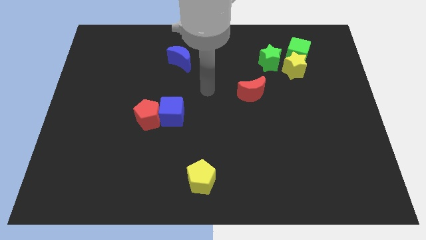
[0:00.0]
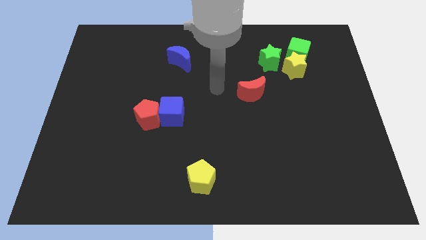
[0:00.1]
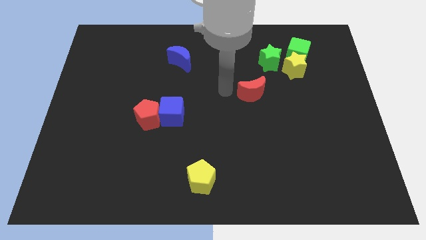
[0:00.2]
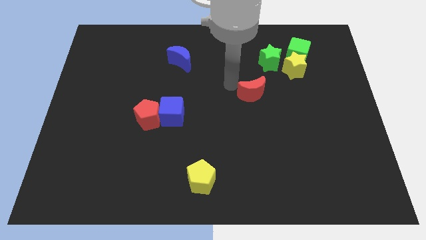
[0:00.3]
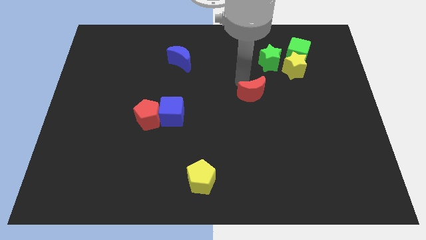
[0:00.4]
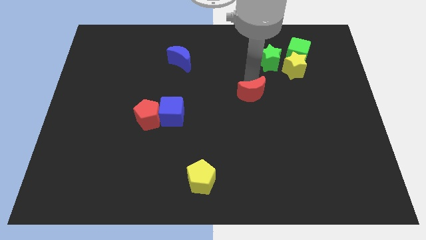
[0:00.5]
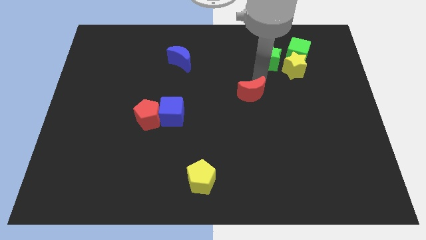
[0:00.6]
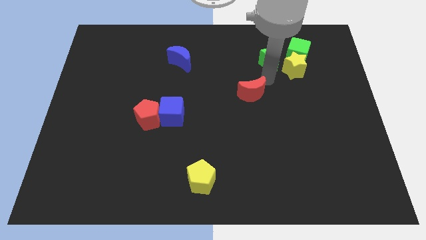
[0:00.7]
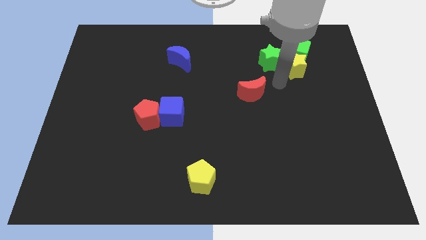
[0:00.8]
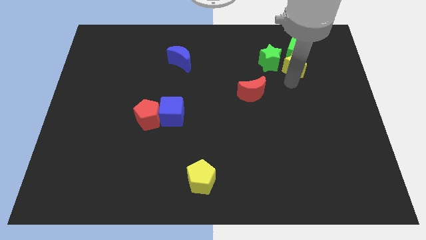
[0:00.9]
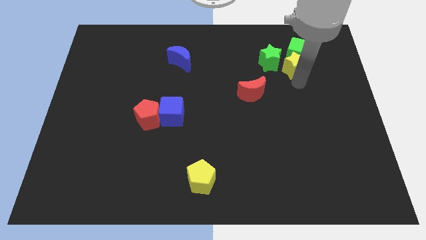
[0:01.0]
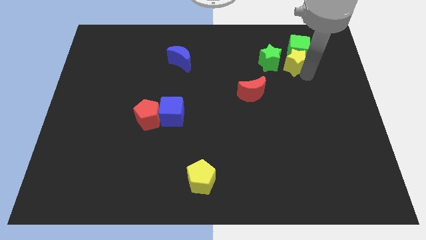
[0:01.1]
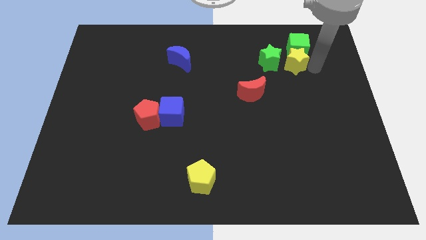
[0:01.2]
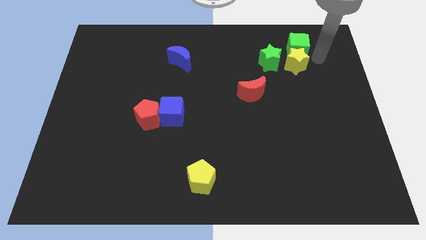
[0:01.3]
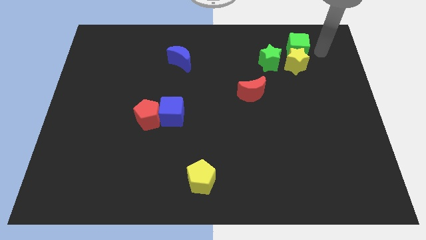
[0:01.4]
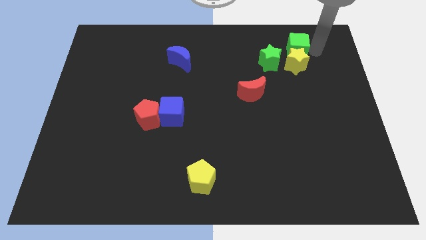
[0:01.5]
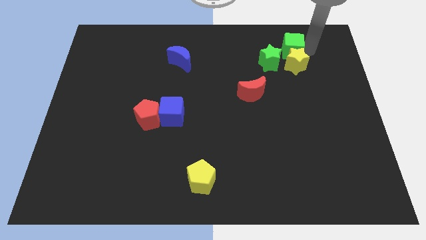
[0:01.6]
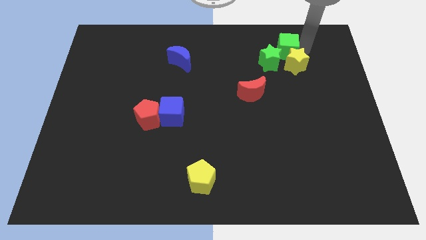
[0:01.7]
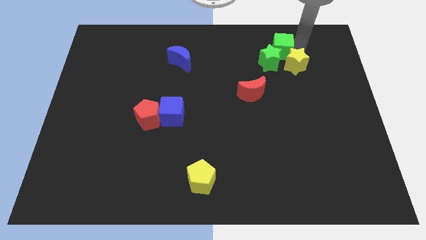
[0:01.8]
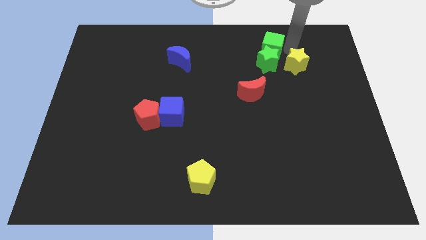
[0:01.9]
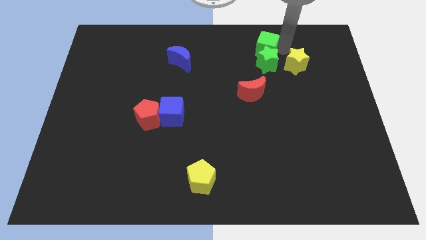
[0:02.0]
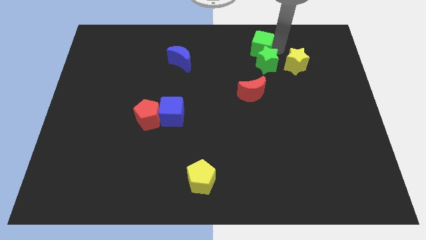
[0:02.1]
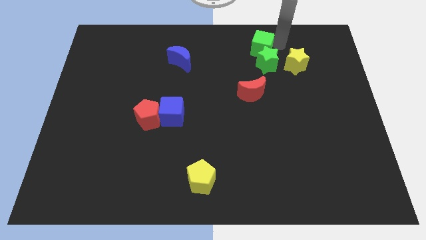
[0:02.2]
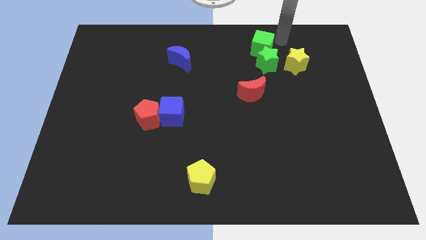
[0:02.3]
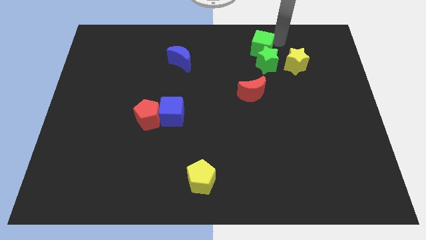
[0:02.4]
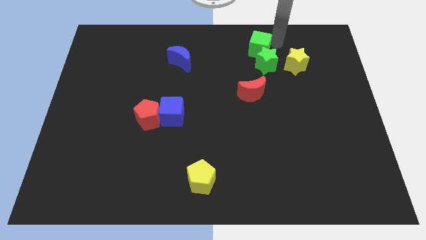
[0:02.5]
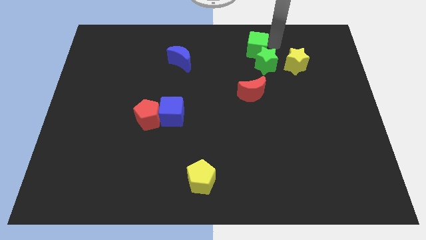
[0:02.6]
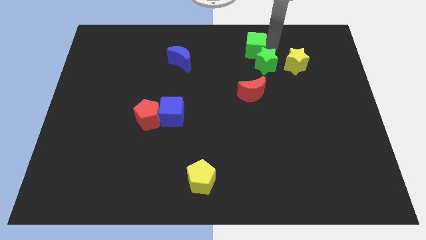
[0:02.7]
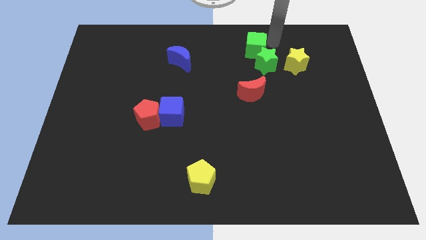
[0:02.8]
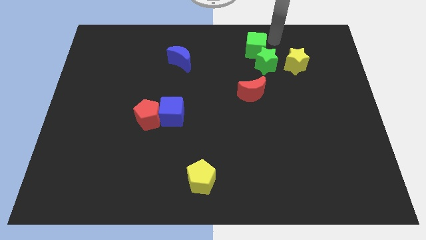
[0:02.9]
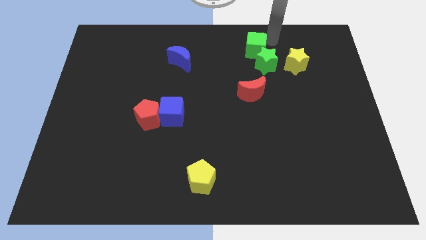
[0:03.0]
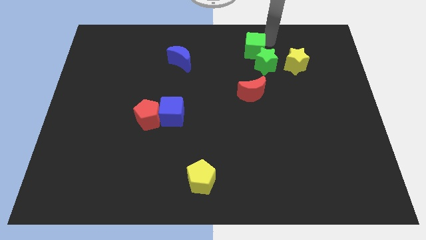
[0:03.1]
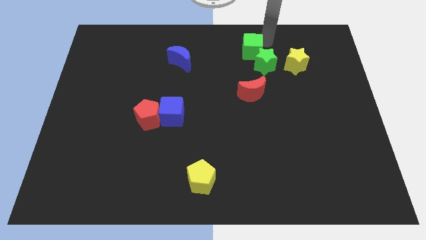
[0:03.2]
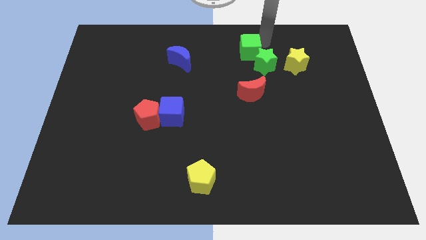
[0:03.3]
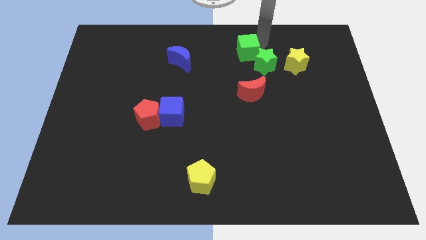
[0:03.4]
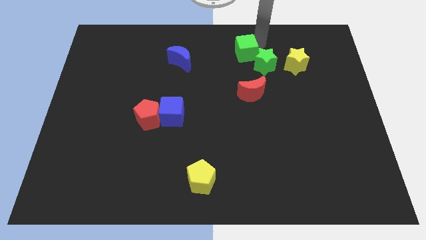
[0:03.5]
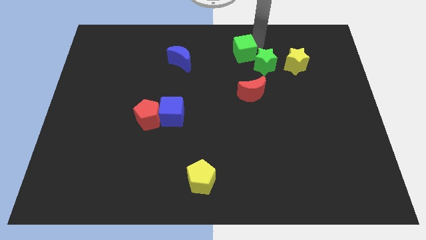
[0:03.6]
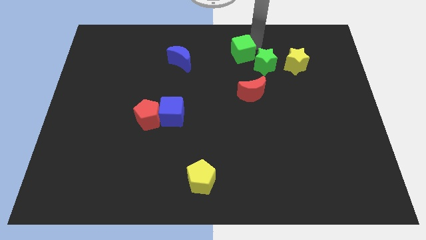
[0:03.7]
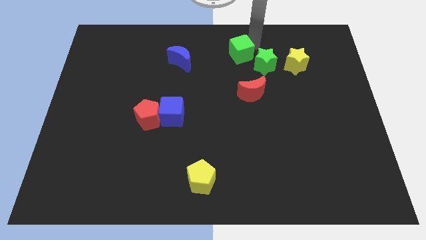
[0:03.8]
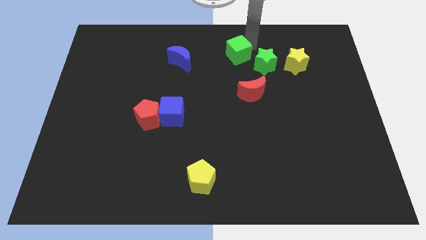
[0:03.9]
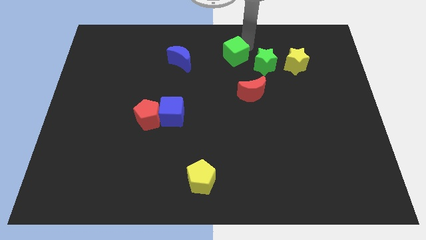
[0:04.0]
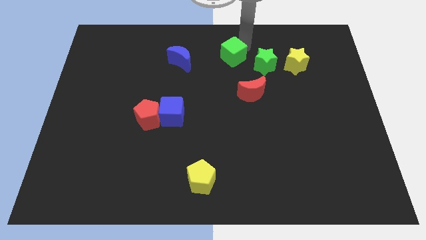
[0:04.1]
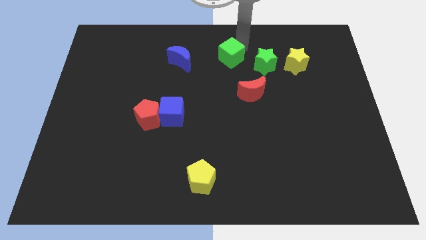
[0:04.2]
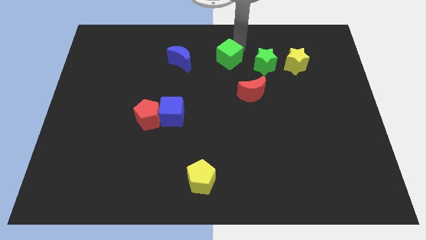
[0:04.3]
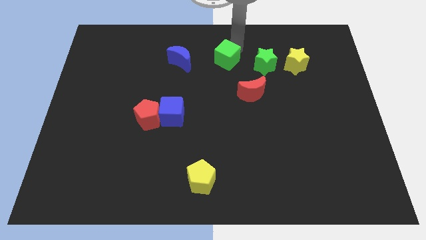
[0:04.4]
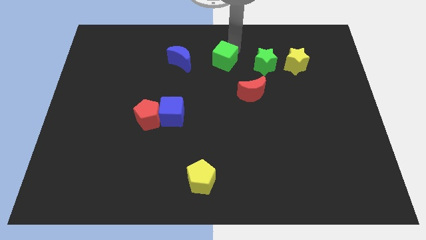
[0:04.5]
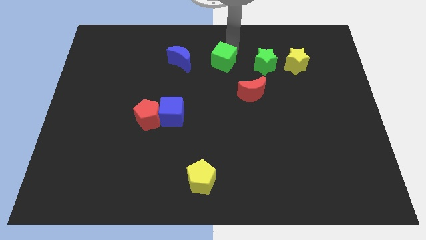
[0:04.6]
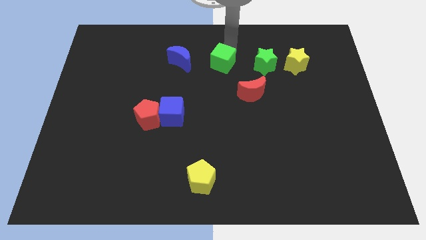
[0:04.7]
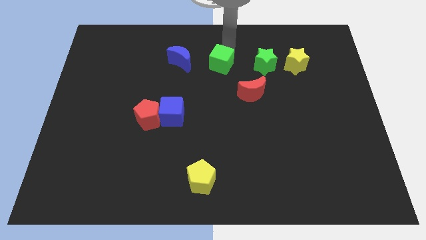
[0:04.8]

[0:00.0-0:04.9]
put the green cube to the middle

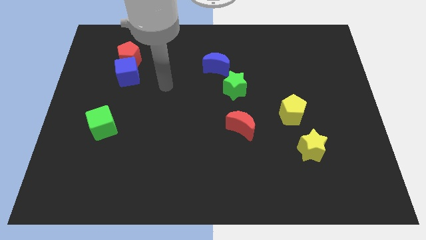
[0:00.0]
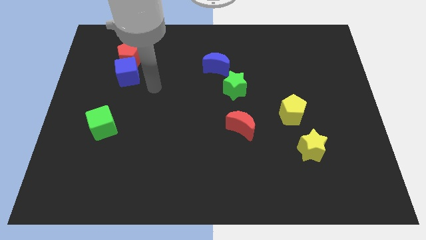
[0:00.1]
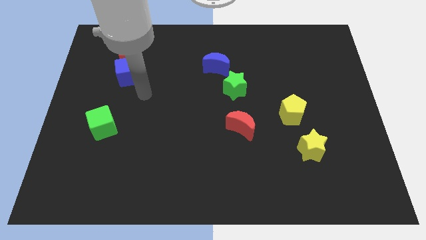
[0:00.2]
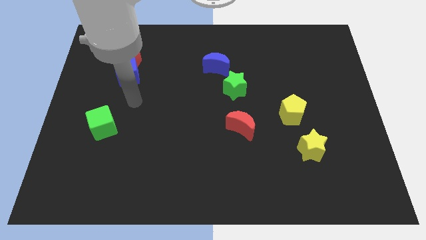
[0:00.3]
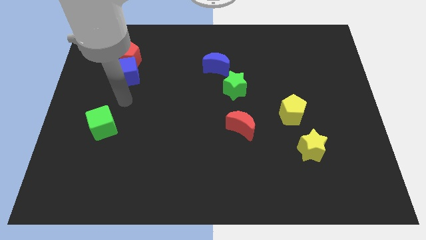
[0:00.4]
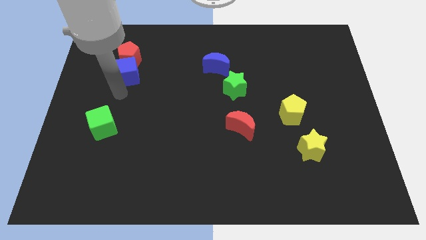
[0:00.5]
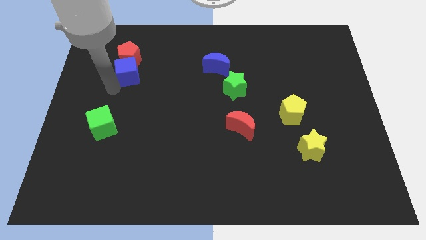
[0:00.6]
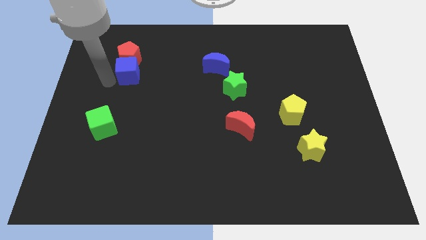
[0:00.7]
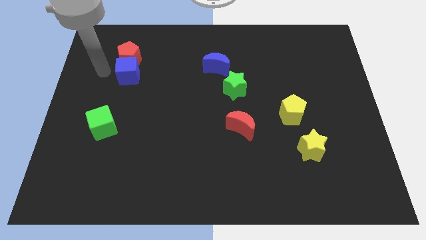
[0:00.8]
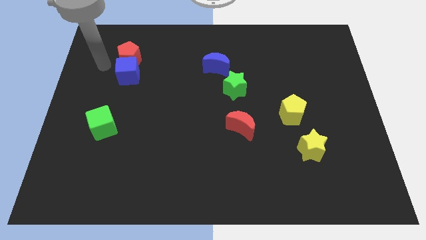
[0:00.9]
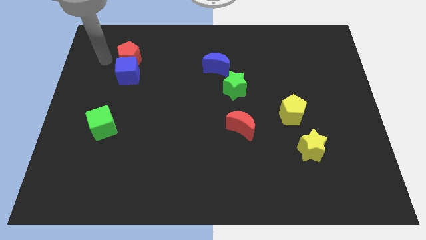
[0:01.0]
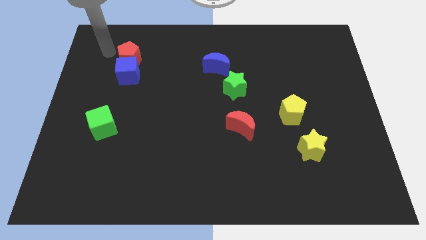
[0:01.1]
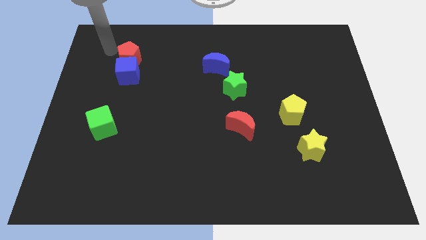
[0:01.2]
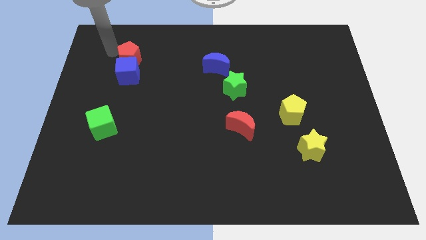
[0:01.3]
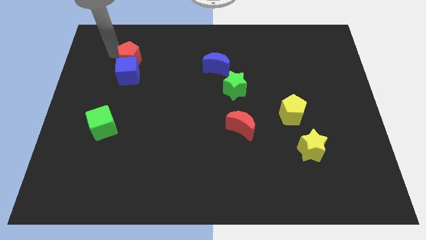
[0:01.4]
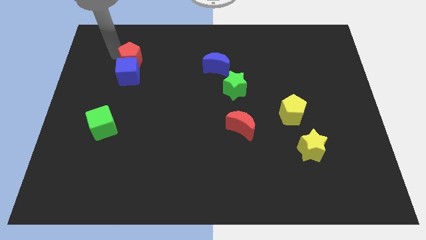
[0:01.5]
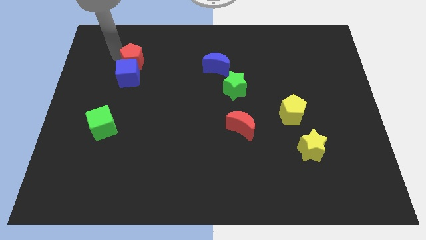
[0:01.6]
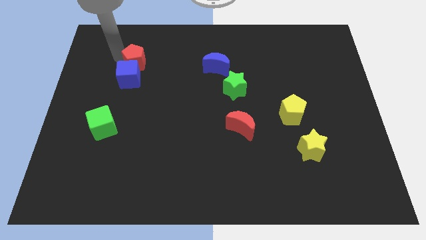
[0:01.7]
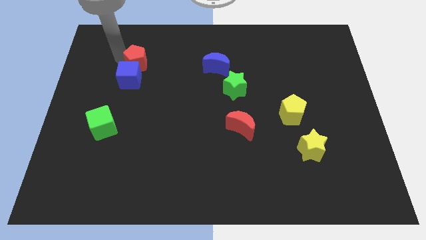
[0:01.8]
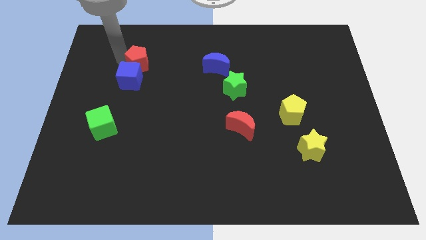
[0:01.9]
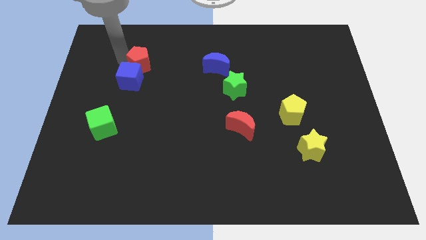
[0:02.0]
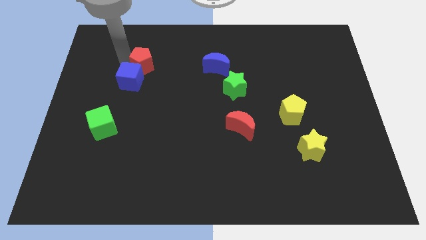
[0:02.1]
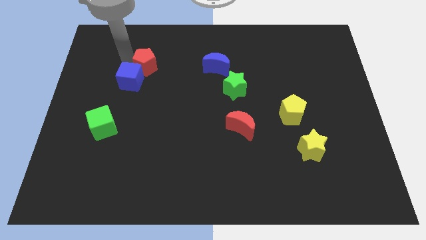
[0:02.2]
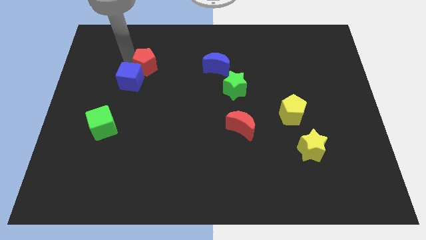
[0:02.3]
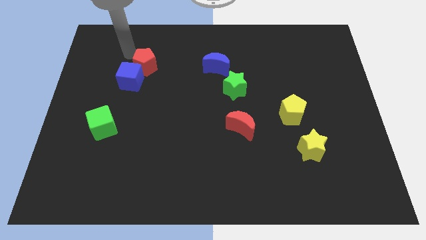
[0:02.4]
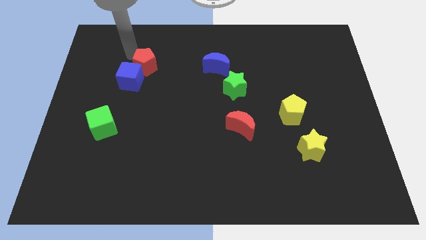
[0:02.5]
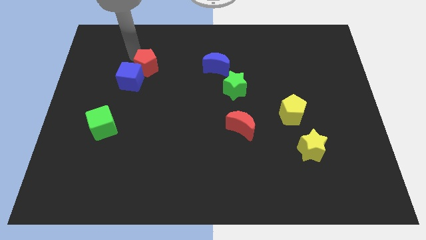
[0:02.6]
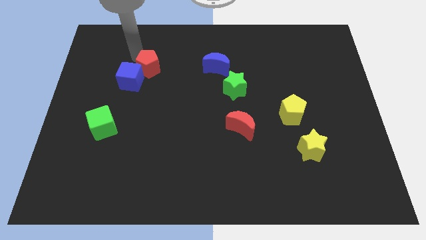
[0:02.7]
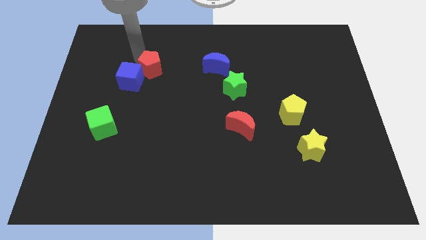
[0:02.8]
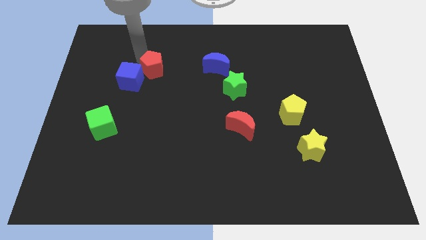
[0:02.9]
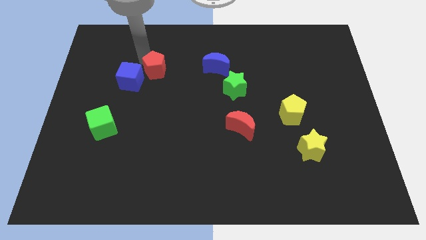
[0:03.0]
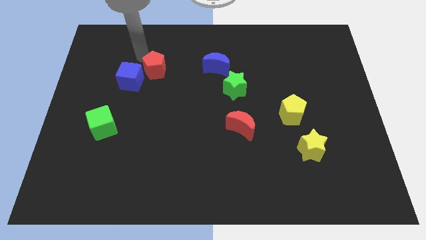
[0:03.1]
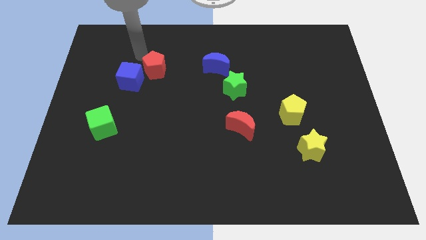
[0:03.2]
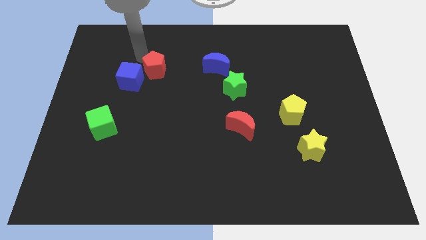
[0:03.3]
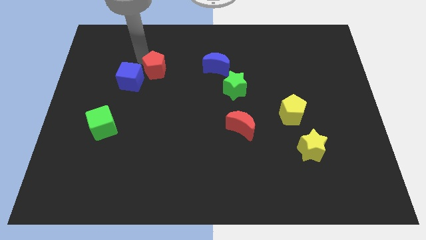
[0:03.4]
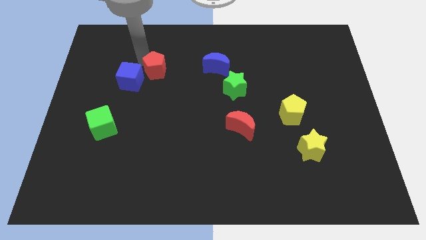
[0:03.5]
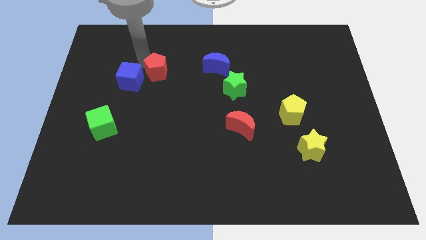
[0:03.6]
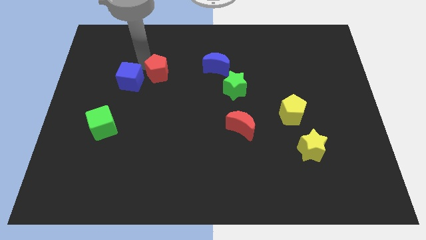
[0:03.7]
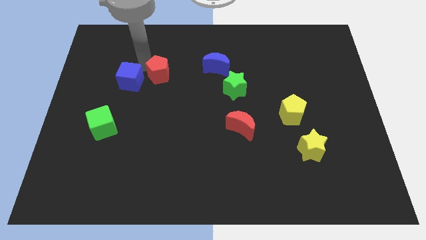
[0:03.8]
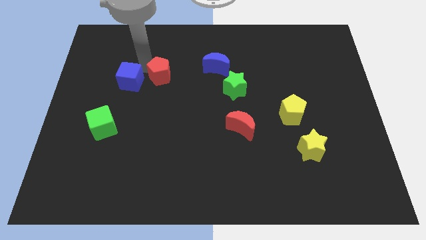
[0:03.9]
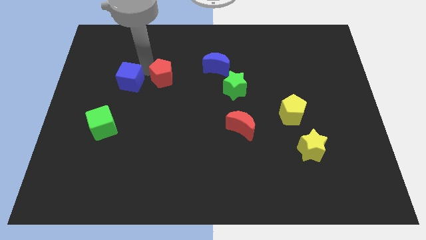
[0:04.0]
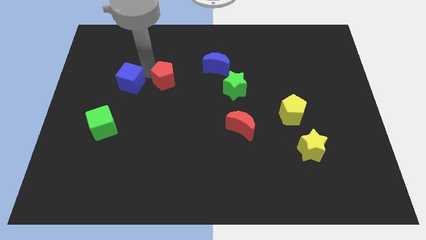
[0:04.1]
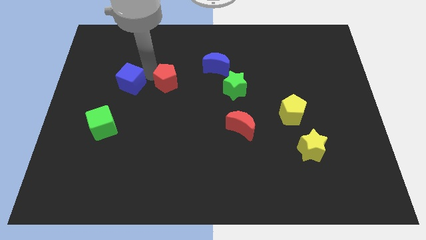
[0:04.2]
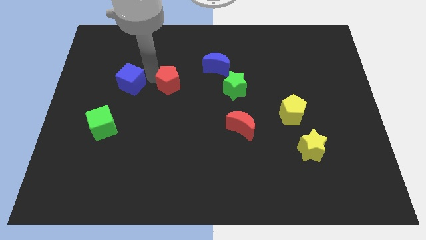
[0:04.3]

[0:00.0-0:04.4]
move the red pentagon to the middle
